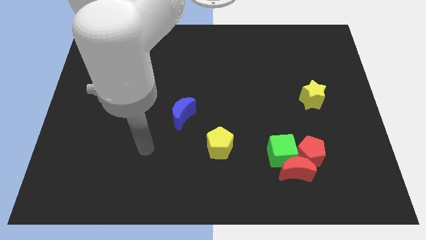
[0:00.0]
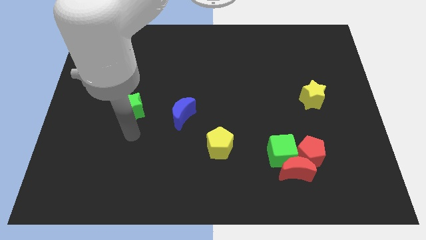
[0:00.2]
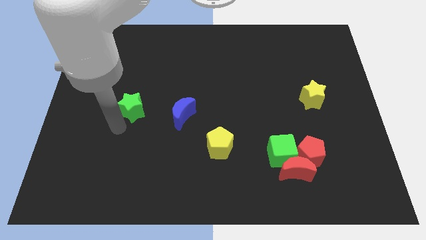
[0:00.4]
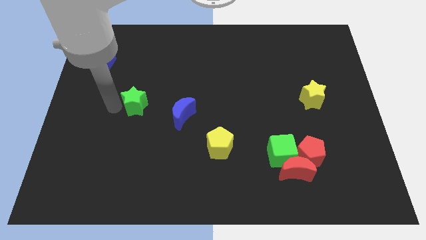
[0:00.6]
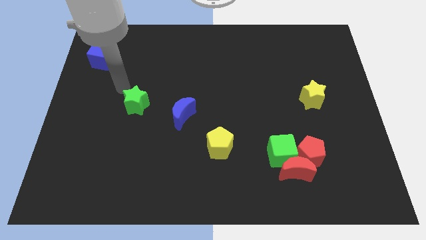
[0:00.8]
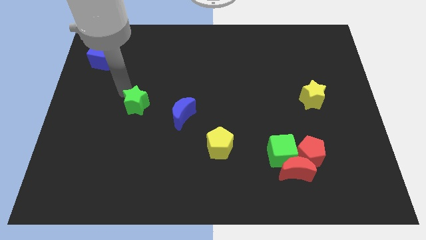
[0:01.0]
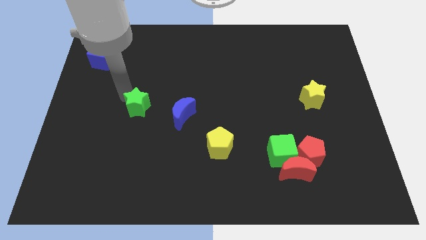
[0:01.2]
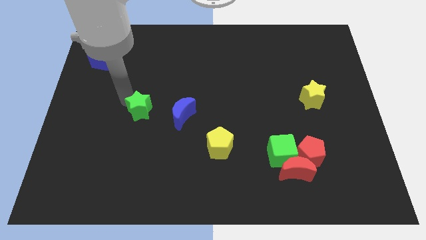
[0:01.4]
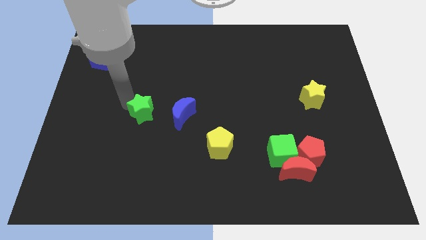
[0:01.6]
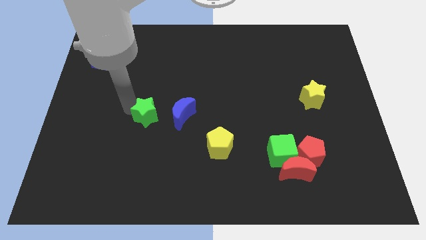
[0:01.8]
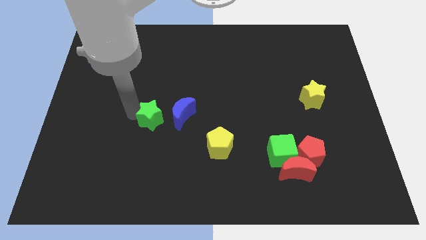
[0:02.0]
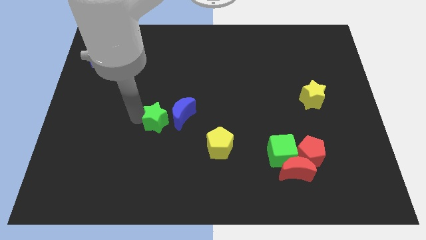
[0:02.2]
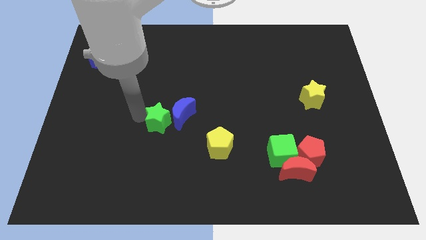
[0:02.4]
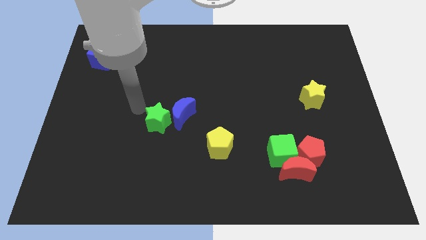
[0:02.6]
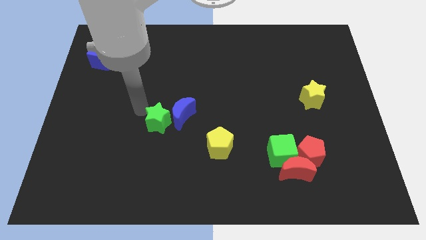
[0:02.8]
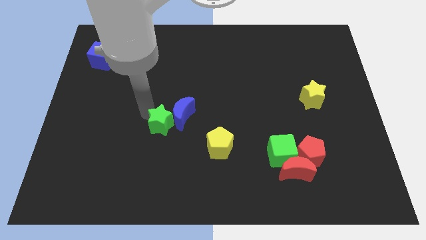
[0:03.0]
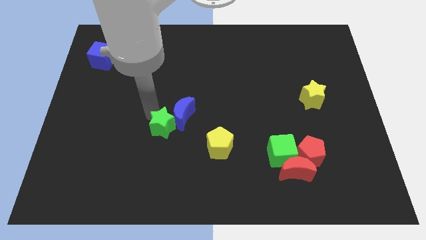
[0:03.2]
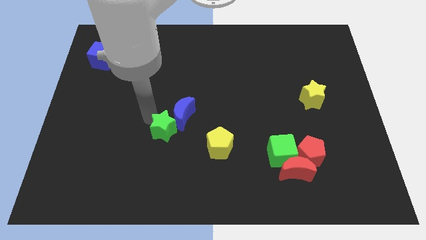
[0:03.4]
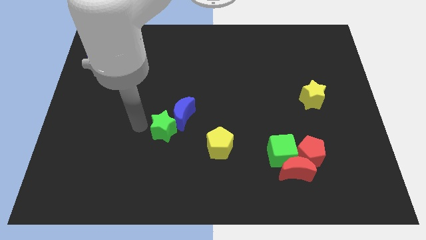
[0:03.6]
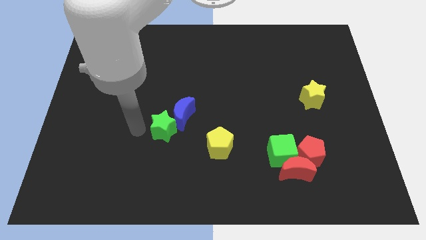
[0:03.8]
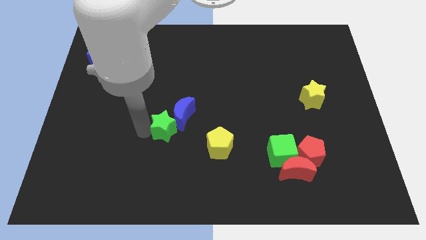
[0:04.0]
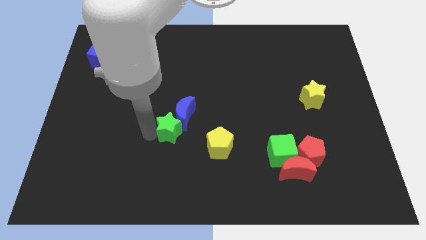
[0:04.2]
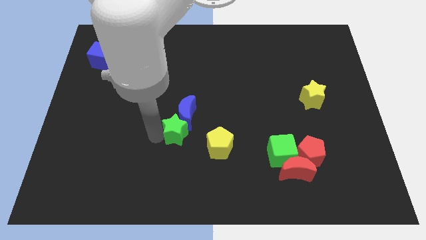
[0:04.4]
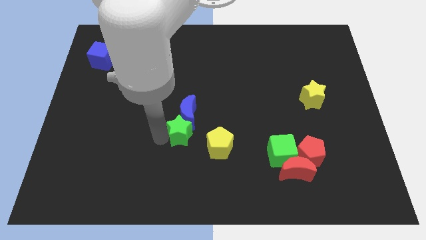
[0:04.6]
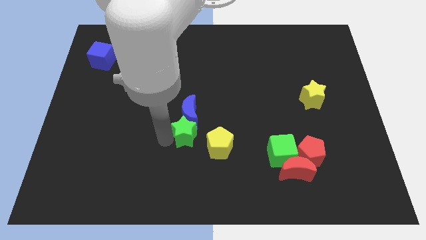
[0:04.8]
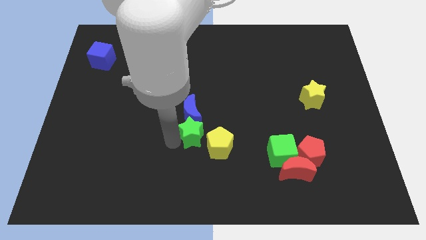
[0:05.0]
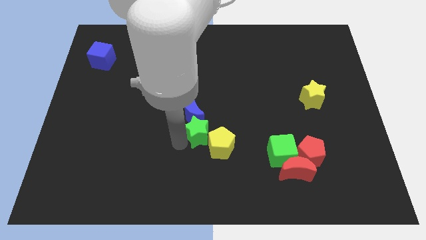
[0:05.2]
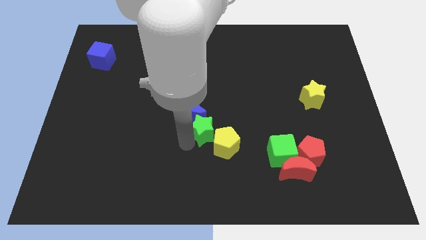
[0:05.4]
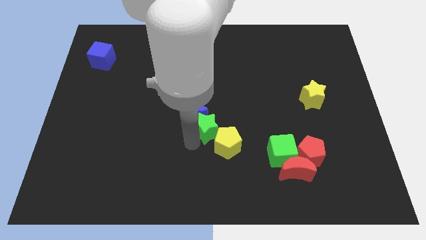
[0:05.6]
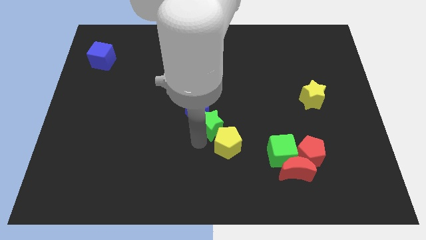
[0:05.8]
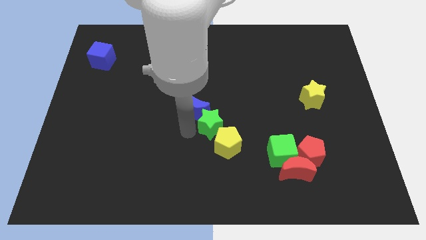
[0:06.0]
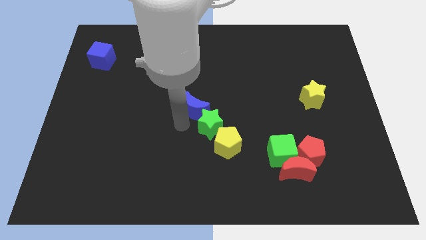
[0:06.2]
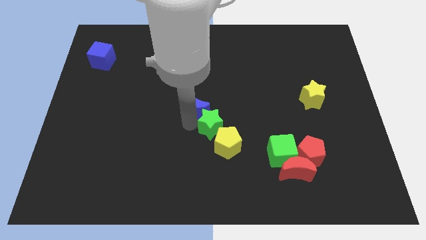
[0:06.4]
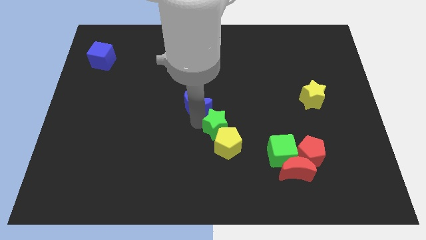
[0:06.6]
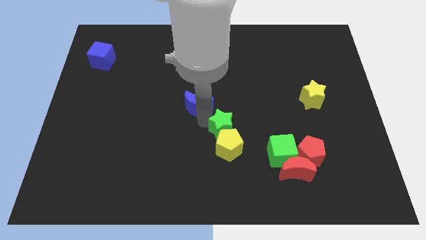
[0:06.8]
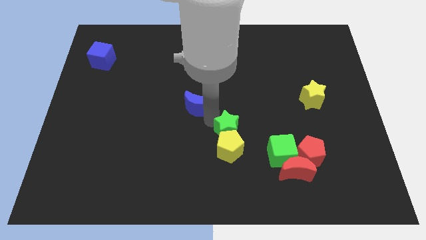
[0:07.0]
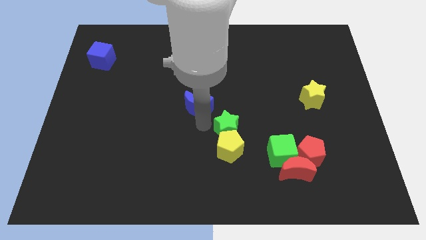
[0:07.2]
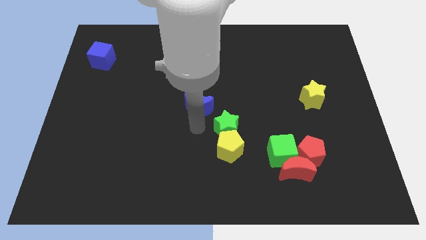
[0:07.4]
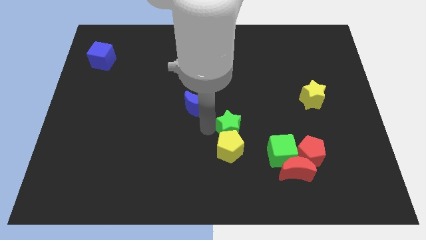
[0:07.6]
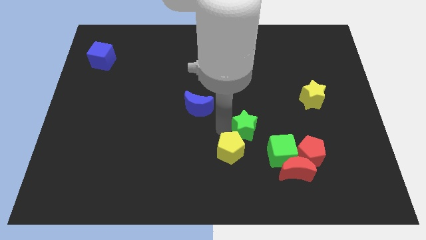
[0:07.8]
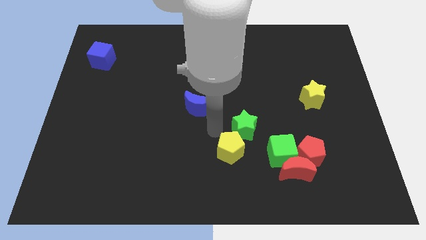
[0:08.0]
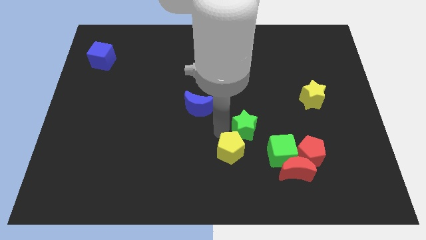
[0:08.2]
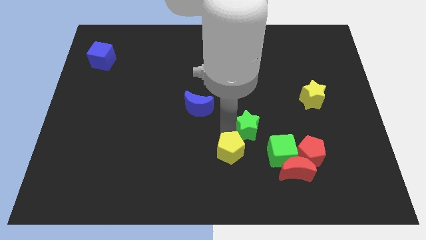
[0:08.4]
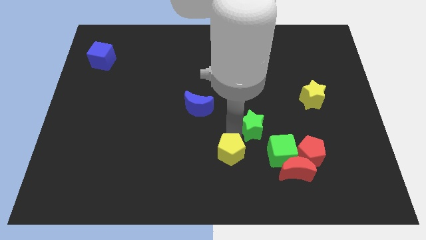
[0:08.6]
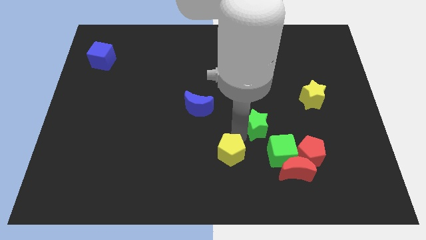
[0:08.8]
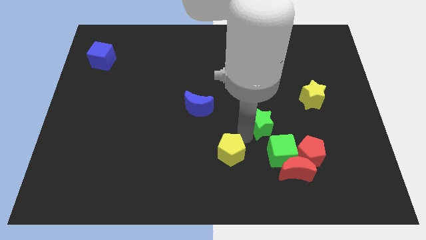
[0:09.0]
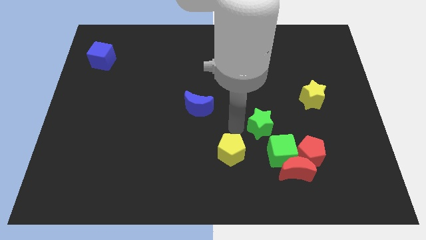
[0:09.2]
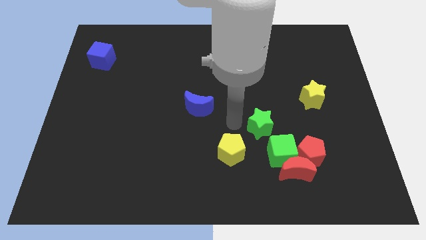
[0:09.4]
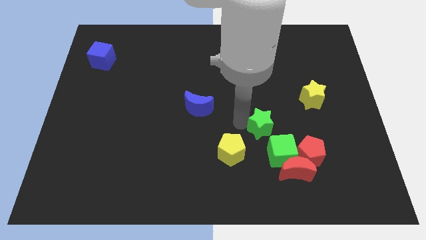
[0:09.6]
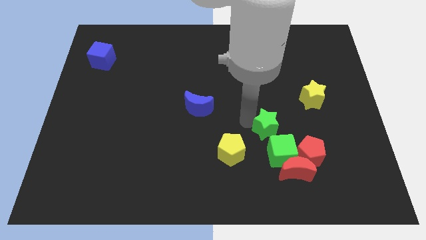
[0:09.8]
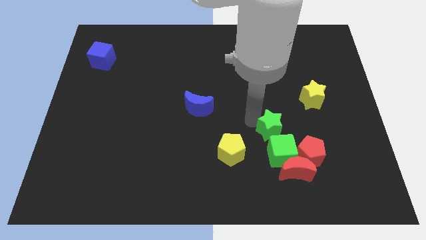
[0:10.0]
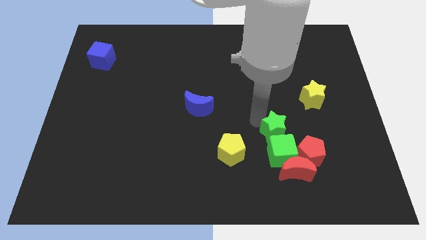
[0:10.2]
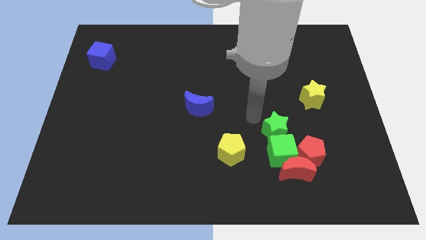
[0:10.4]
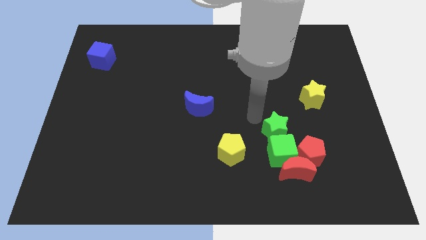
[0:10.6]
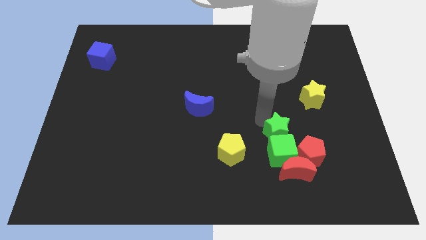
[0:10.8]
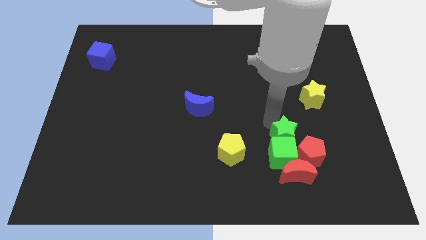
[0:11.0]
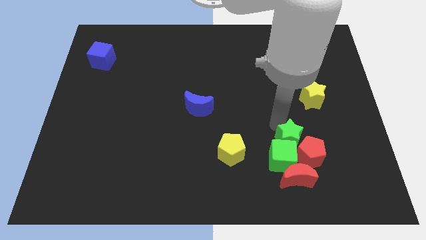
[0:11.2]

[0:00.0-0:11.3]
move the green star towards the red pentagon

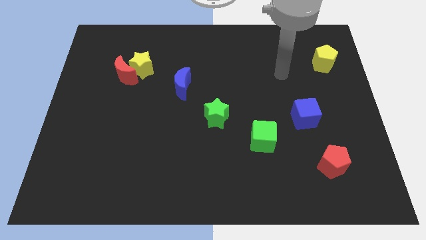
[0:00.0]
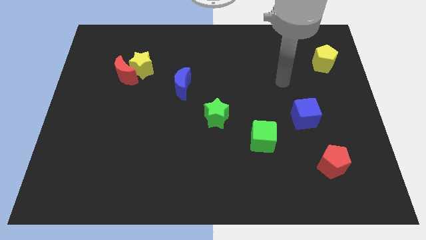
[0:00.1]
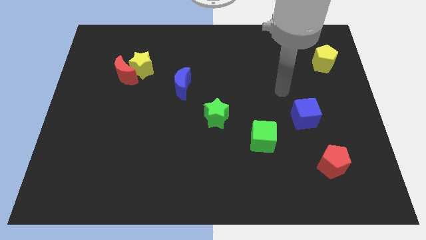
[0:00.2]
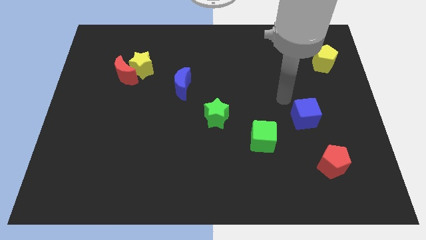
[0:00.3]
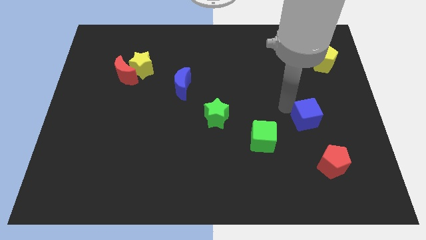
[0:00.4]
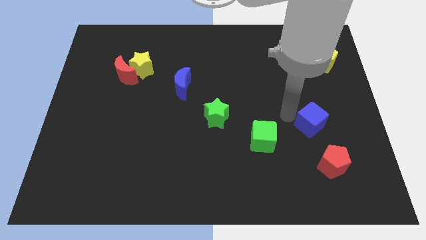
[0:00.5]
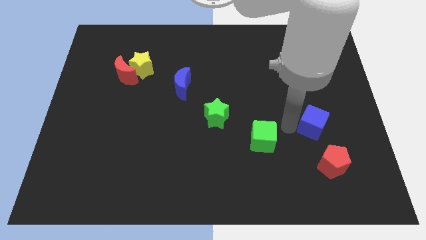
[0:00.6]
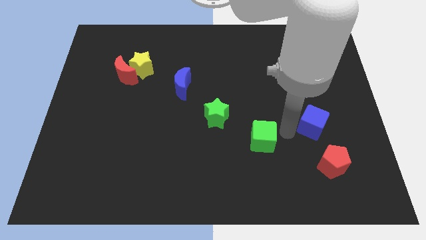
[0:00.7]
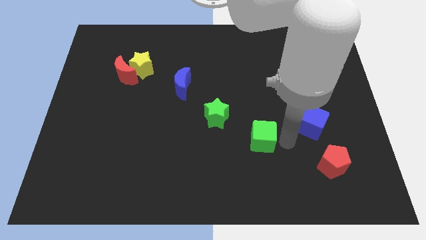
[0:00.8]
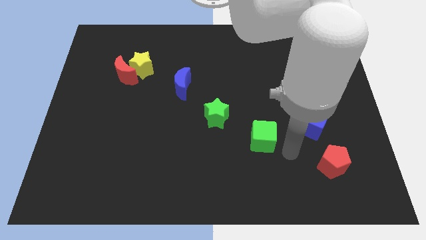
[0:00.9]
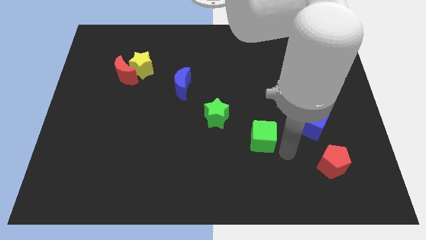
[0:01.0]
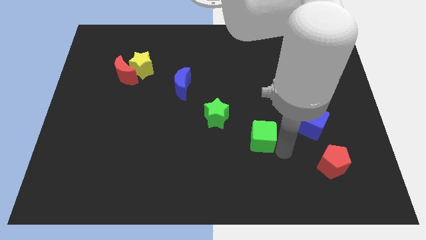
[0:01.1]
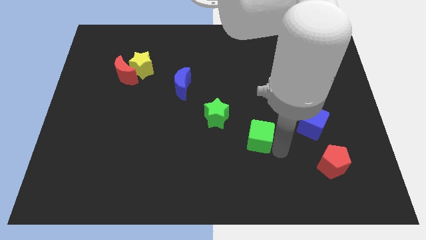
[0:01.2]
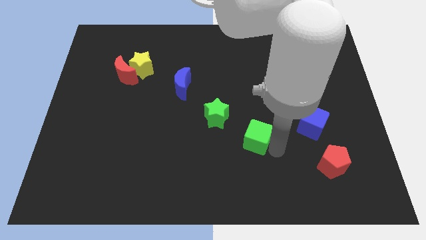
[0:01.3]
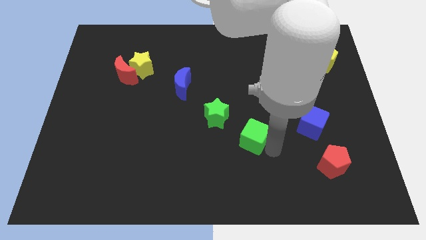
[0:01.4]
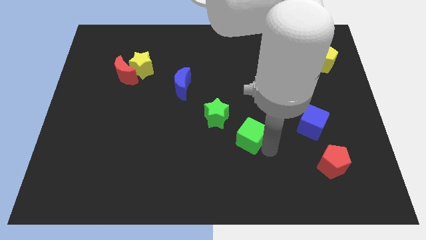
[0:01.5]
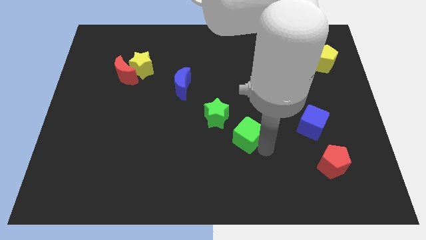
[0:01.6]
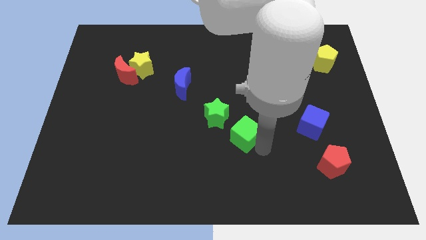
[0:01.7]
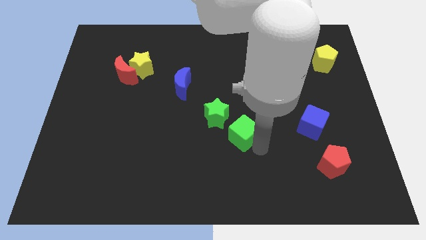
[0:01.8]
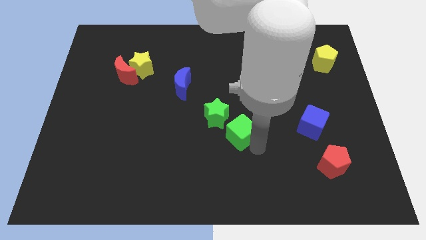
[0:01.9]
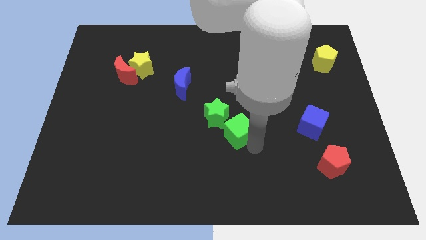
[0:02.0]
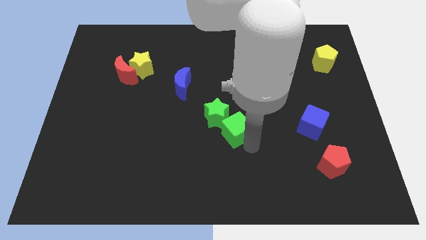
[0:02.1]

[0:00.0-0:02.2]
slide the green cube next to the green star
